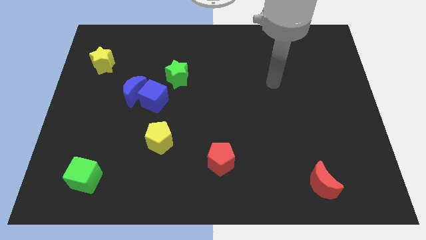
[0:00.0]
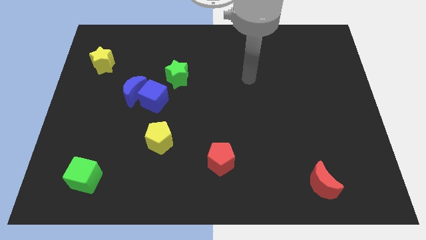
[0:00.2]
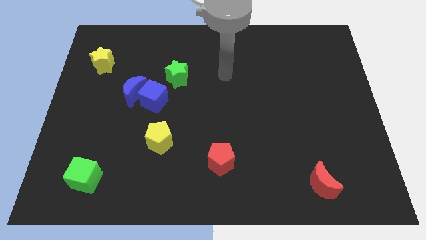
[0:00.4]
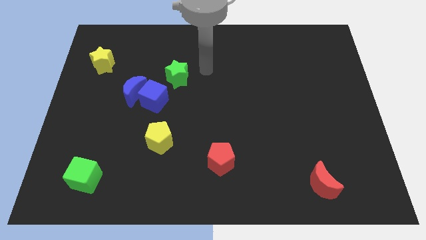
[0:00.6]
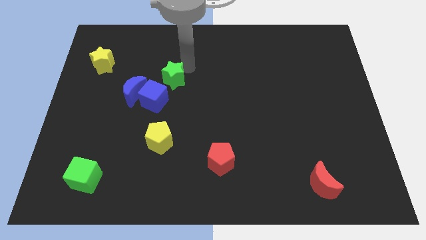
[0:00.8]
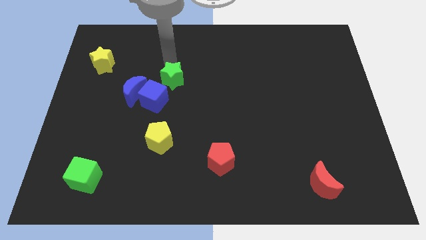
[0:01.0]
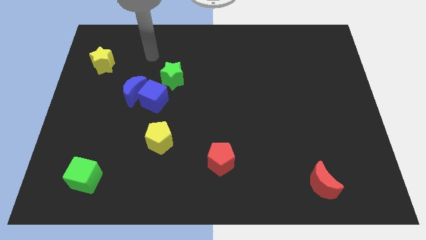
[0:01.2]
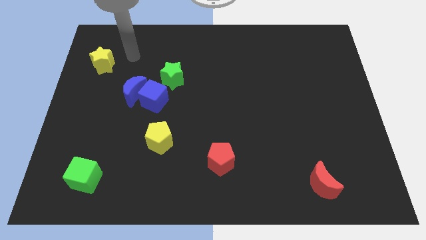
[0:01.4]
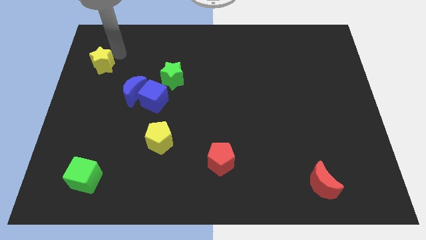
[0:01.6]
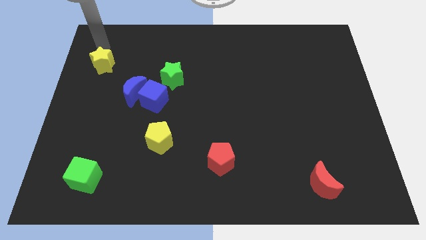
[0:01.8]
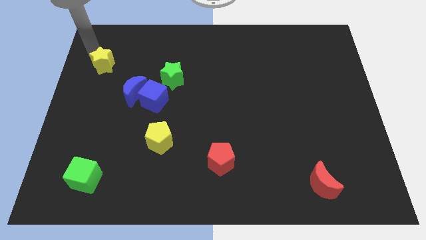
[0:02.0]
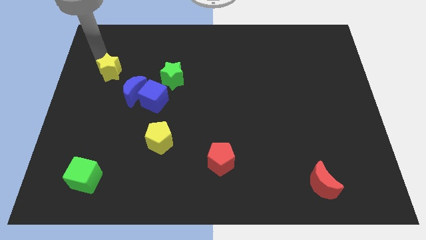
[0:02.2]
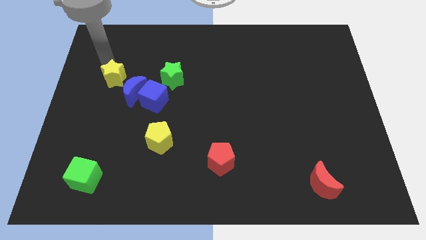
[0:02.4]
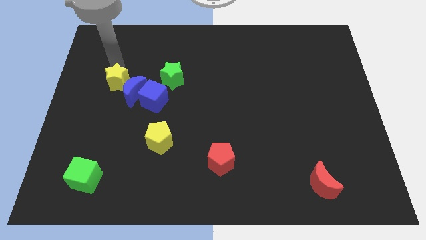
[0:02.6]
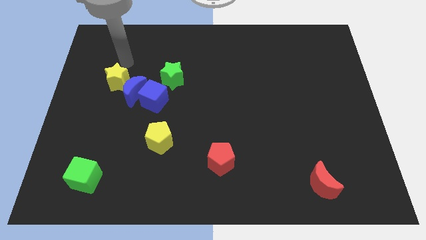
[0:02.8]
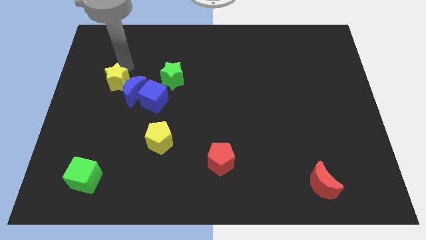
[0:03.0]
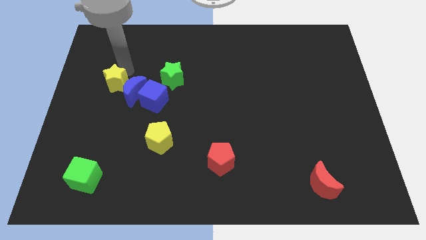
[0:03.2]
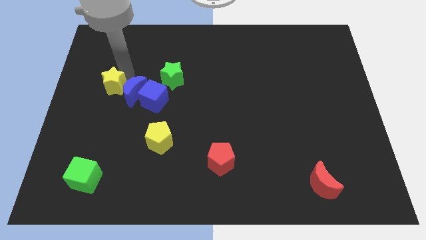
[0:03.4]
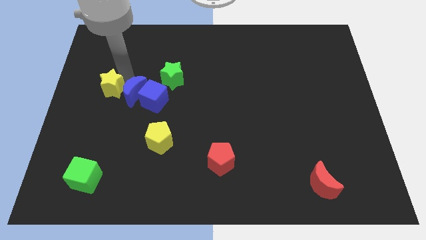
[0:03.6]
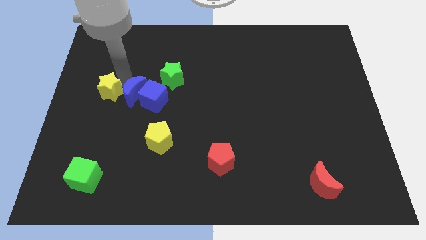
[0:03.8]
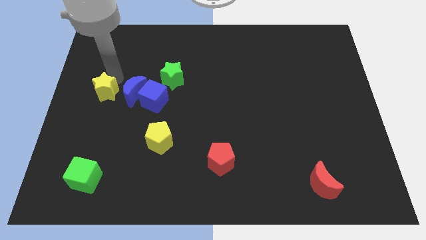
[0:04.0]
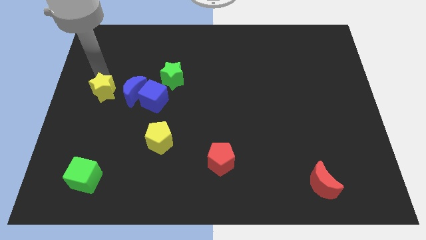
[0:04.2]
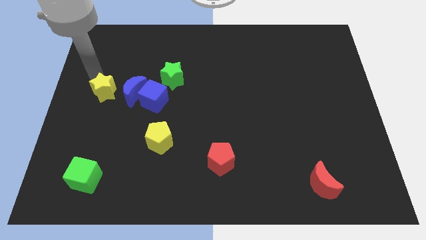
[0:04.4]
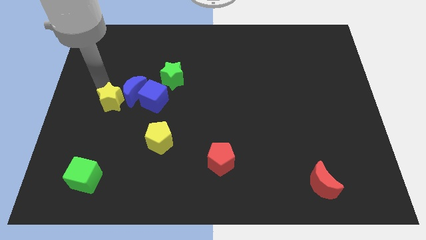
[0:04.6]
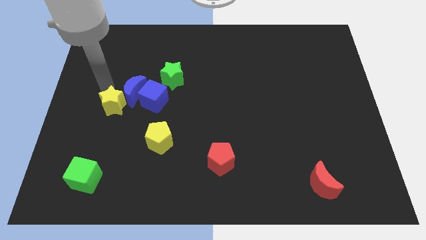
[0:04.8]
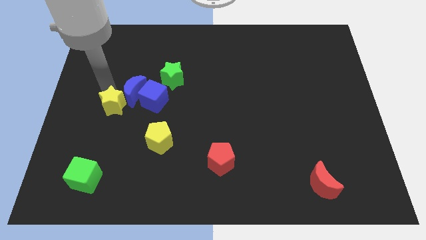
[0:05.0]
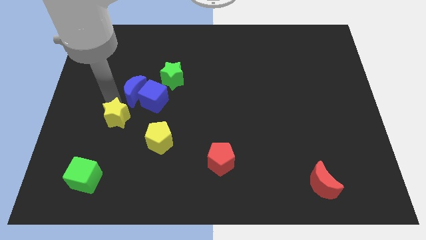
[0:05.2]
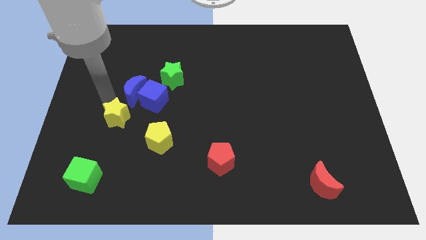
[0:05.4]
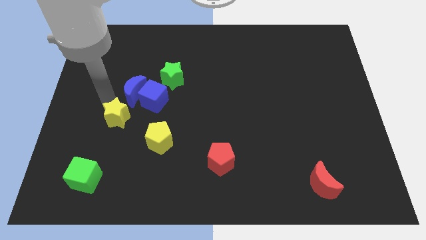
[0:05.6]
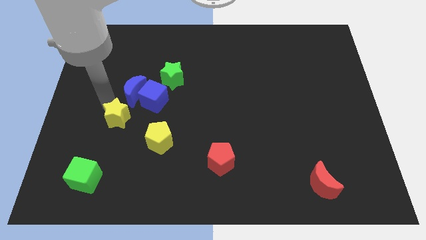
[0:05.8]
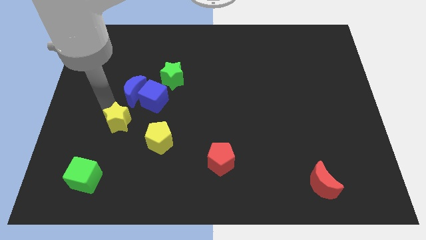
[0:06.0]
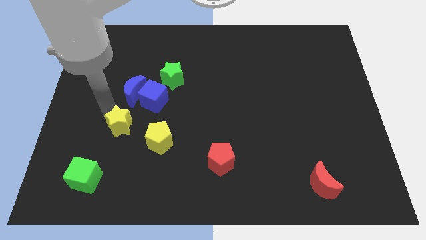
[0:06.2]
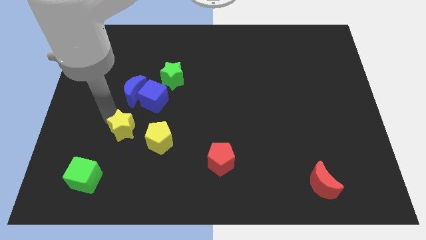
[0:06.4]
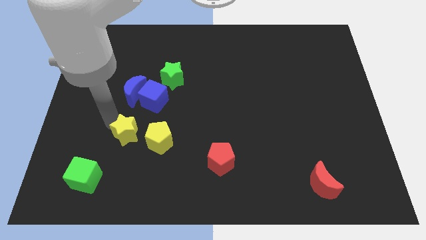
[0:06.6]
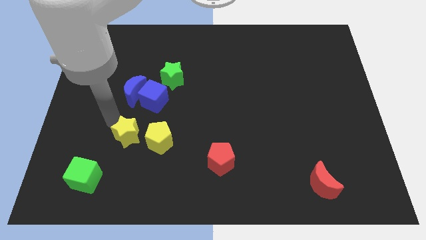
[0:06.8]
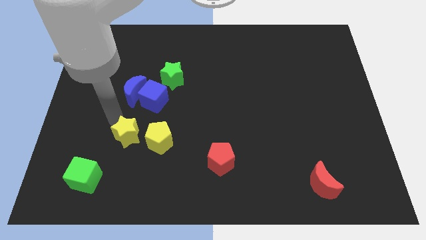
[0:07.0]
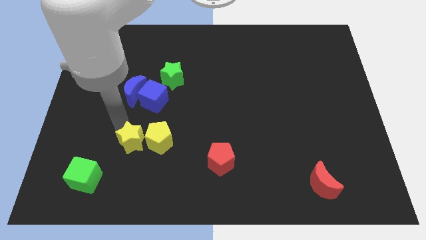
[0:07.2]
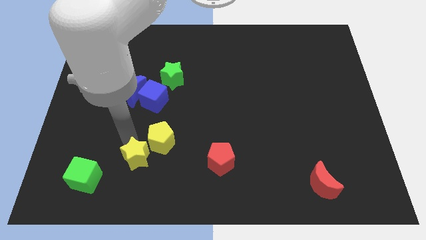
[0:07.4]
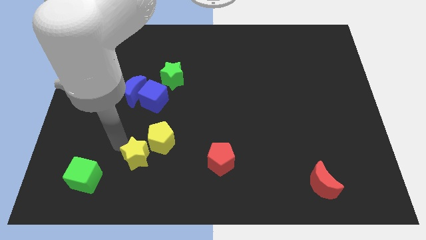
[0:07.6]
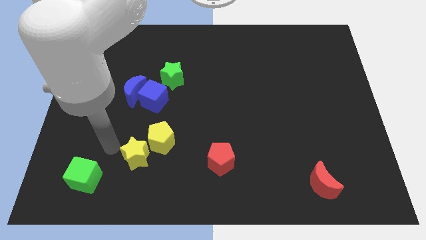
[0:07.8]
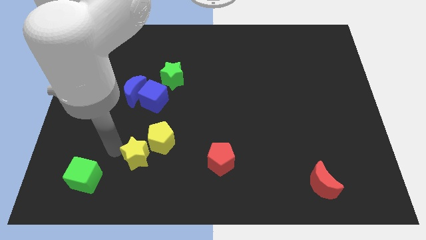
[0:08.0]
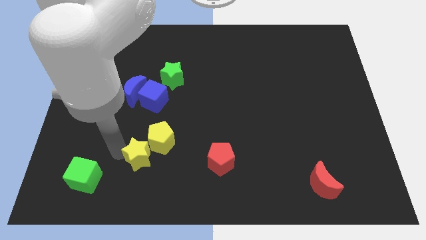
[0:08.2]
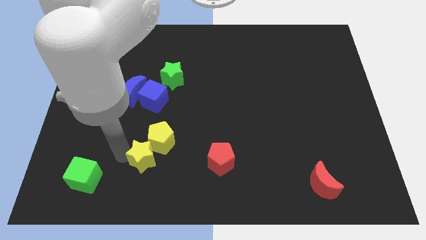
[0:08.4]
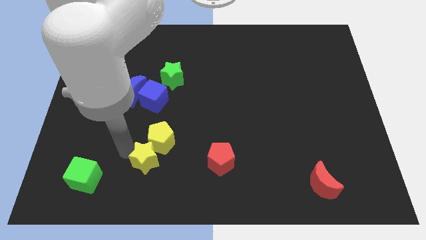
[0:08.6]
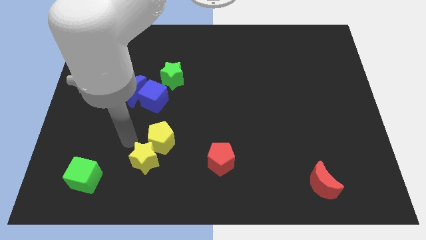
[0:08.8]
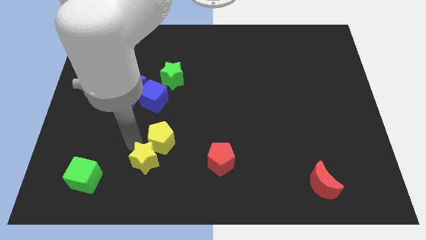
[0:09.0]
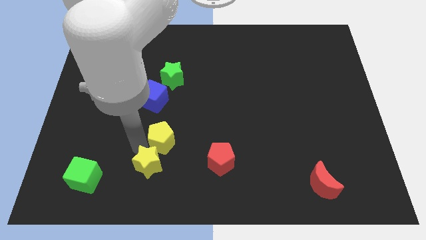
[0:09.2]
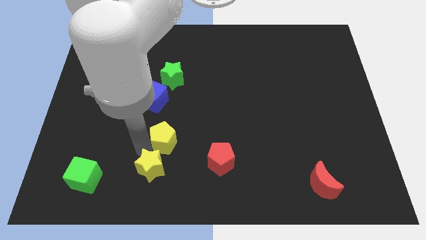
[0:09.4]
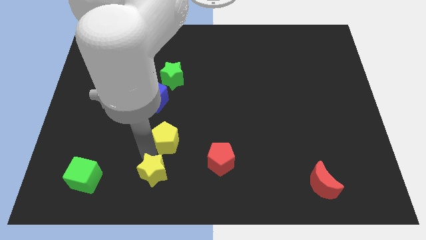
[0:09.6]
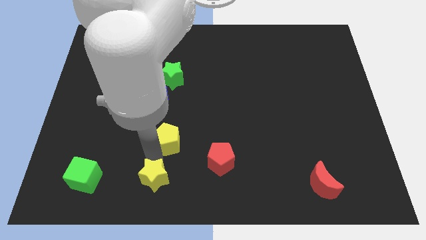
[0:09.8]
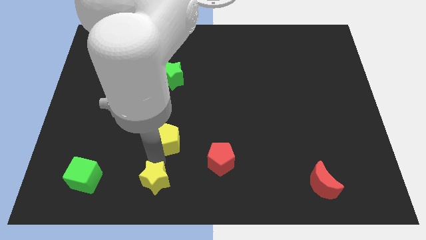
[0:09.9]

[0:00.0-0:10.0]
push the yellow star to the bottom side

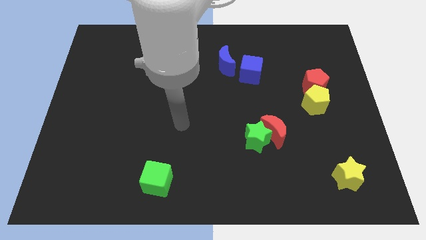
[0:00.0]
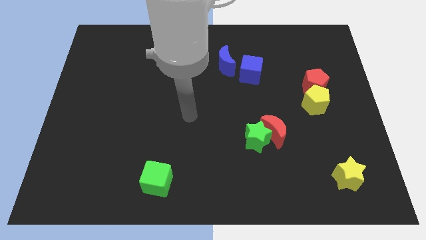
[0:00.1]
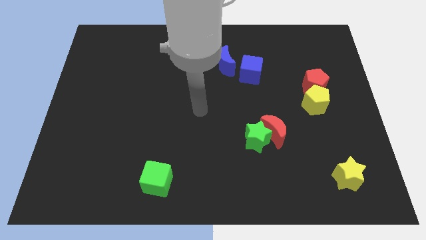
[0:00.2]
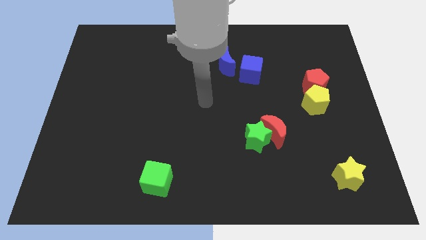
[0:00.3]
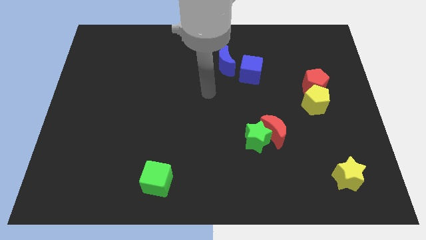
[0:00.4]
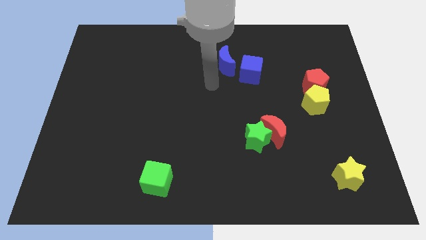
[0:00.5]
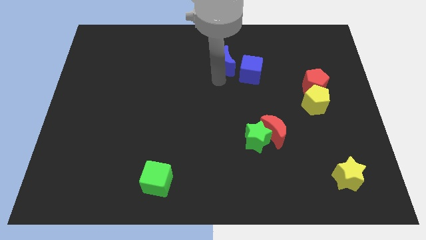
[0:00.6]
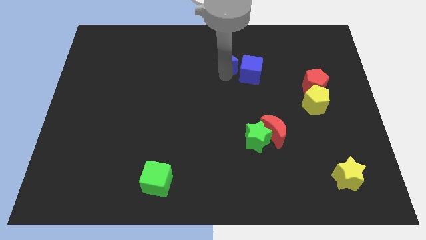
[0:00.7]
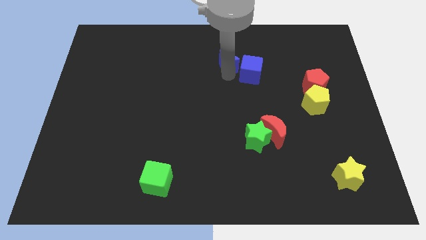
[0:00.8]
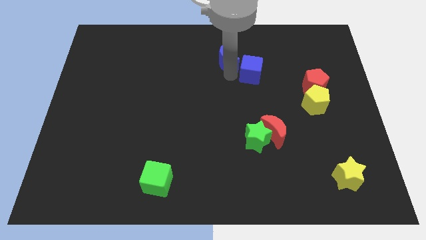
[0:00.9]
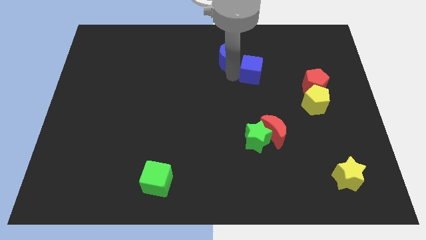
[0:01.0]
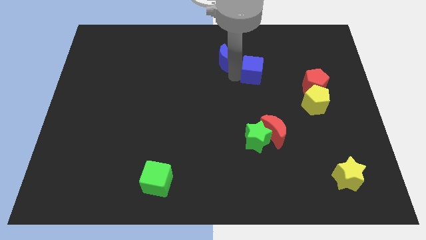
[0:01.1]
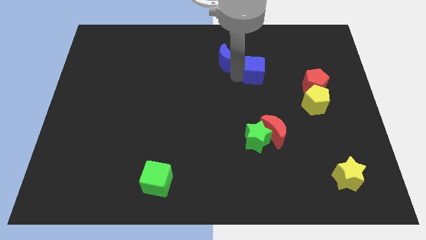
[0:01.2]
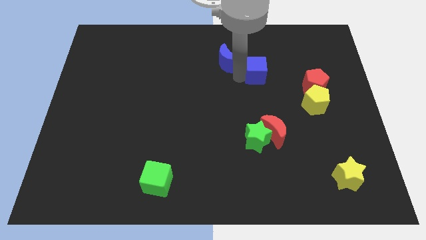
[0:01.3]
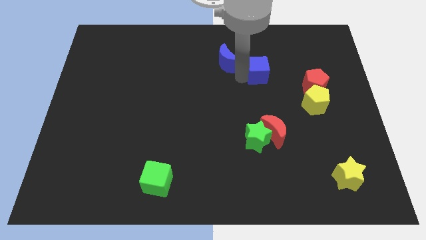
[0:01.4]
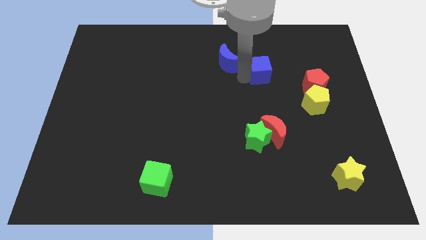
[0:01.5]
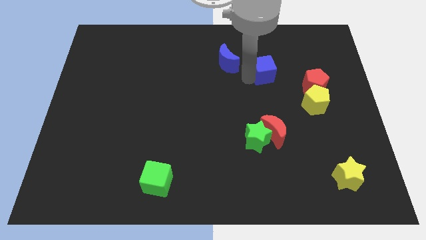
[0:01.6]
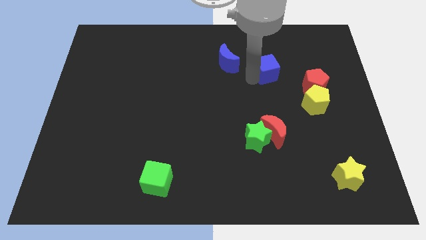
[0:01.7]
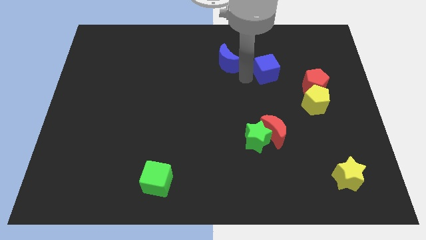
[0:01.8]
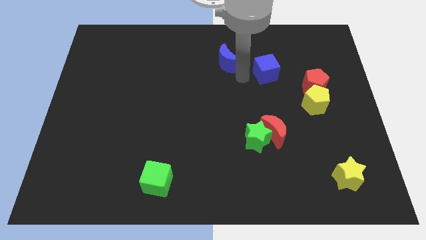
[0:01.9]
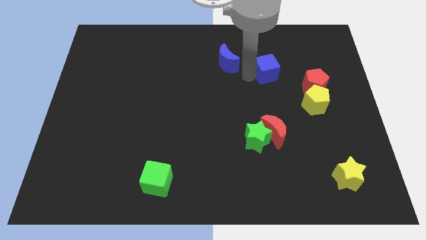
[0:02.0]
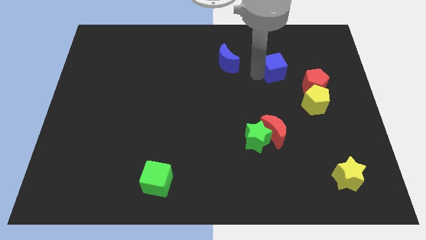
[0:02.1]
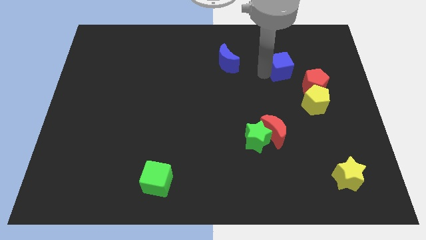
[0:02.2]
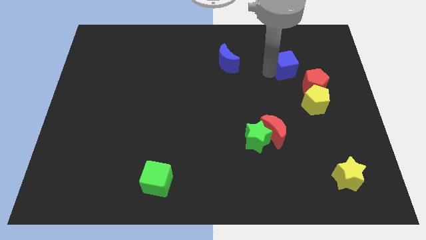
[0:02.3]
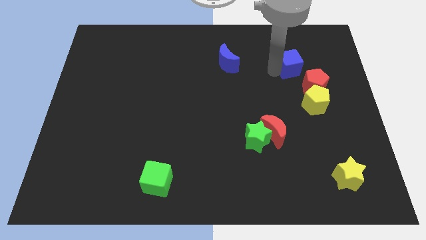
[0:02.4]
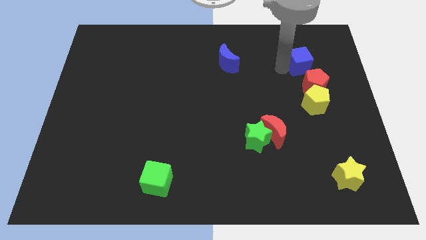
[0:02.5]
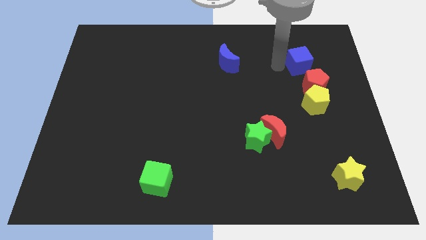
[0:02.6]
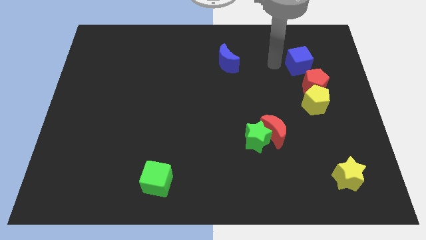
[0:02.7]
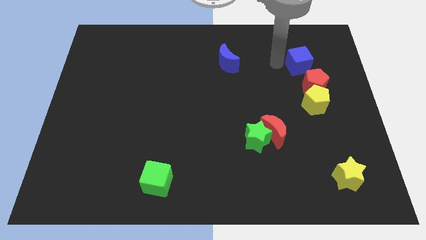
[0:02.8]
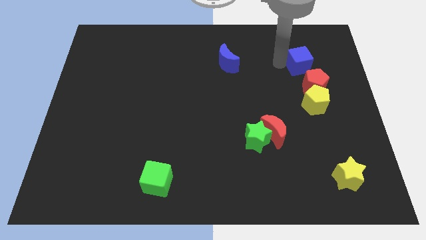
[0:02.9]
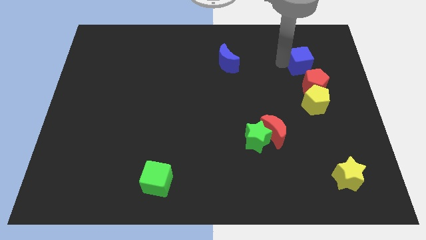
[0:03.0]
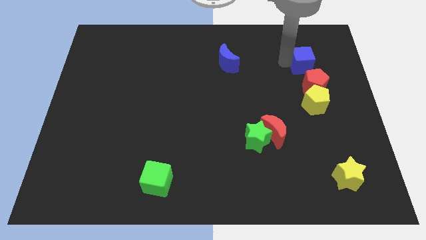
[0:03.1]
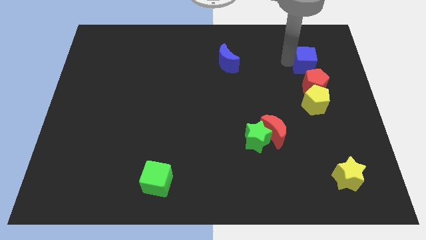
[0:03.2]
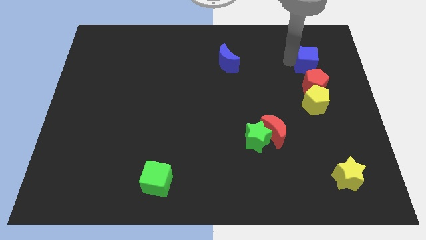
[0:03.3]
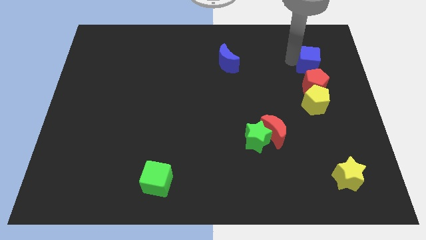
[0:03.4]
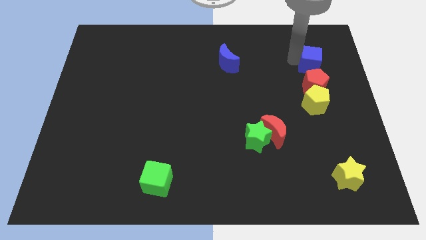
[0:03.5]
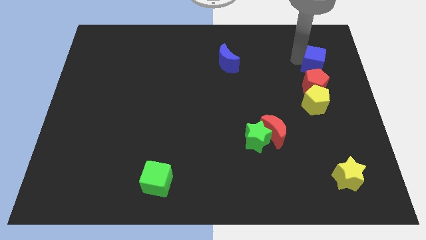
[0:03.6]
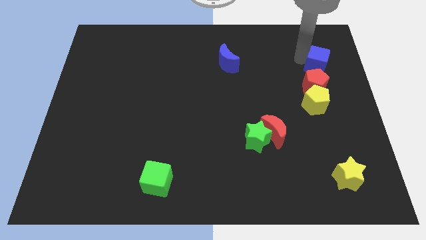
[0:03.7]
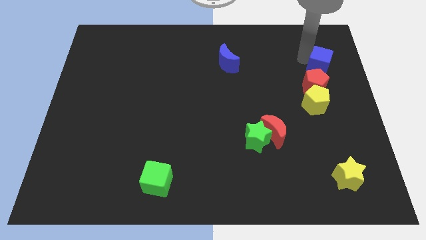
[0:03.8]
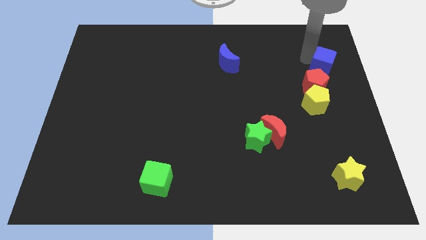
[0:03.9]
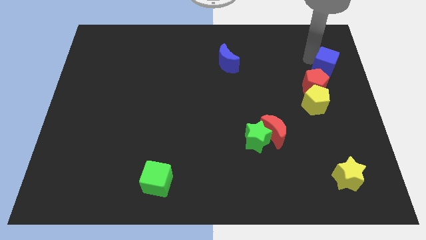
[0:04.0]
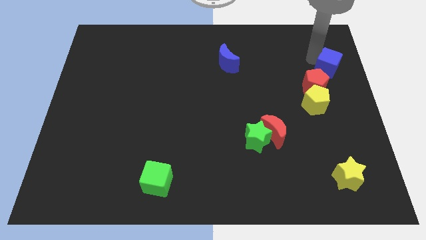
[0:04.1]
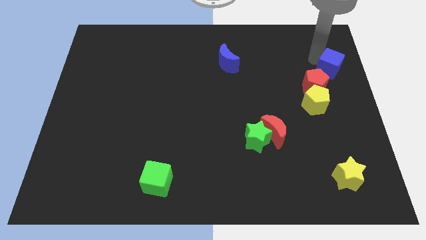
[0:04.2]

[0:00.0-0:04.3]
move the blue cube to the right side of the board
